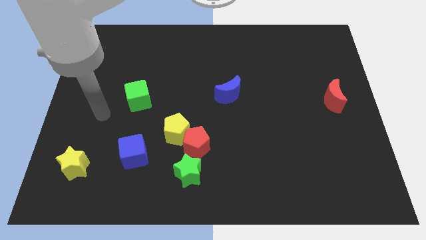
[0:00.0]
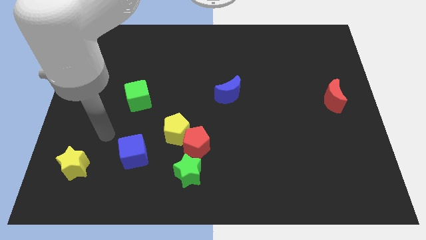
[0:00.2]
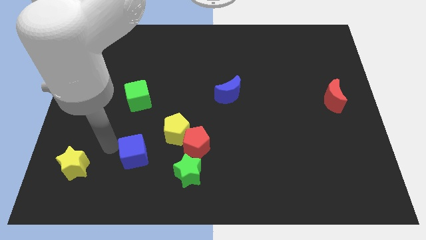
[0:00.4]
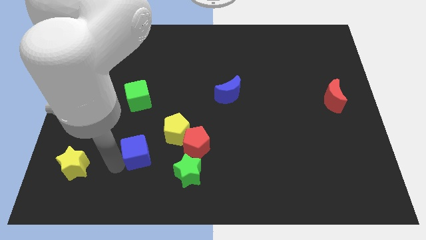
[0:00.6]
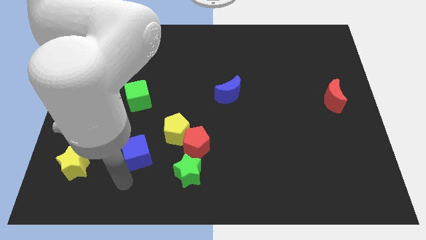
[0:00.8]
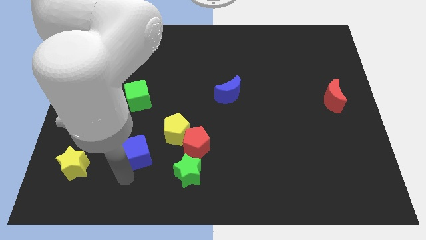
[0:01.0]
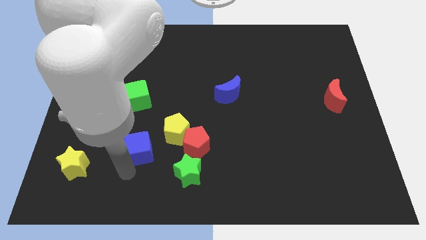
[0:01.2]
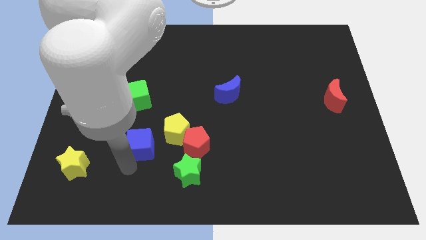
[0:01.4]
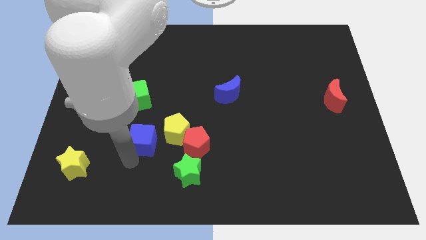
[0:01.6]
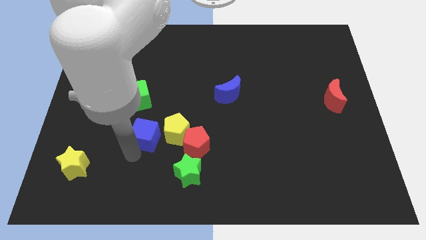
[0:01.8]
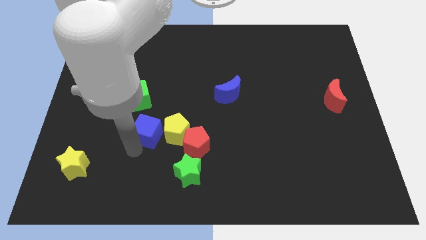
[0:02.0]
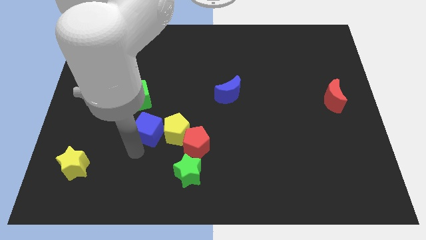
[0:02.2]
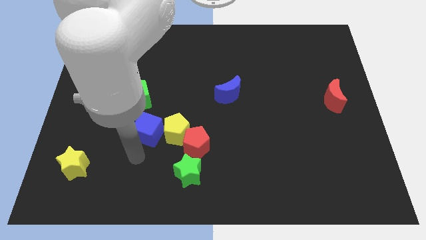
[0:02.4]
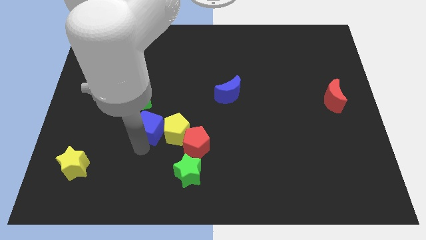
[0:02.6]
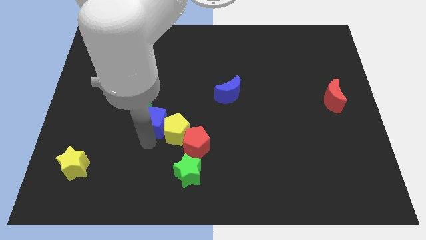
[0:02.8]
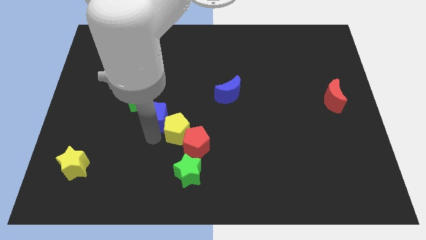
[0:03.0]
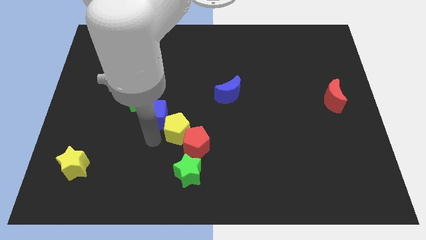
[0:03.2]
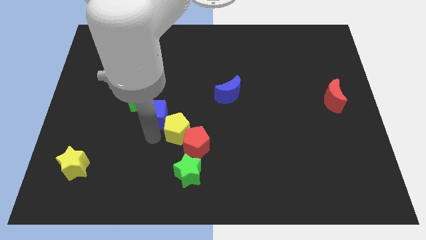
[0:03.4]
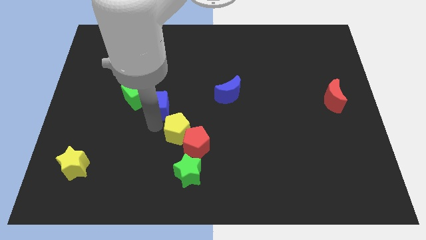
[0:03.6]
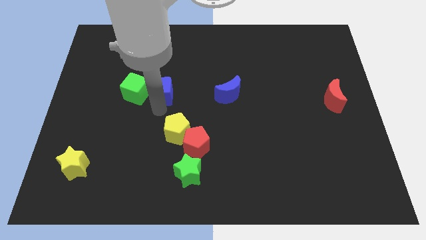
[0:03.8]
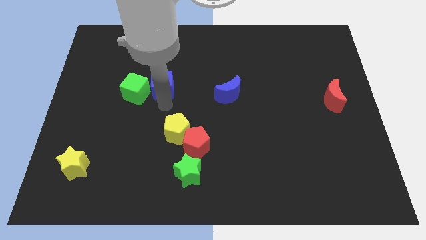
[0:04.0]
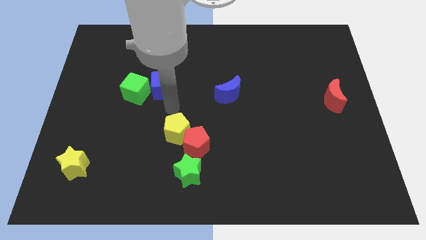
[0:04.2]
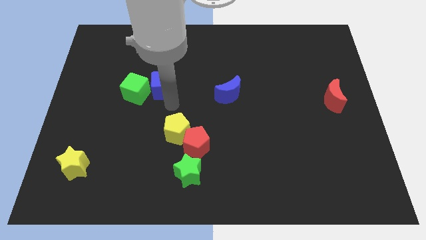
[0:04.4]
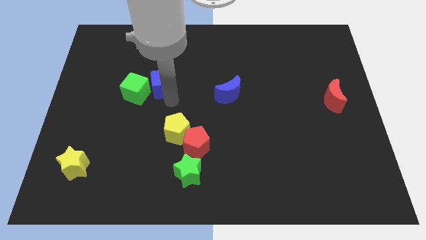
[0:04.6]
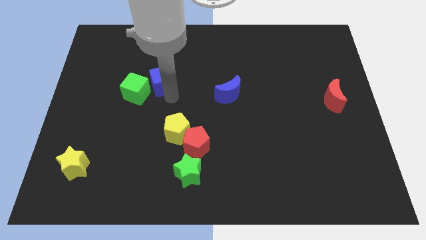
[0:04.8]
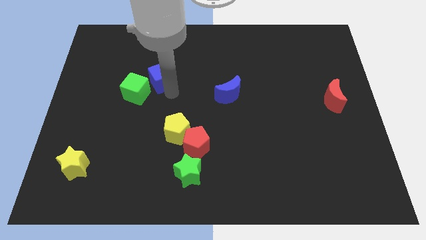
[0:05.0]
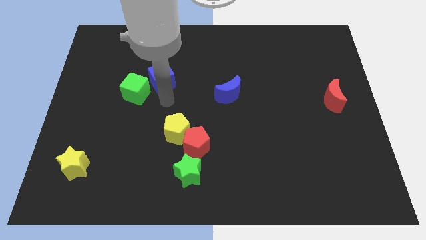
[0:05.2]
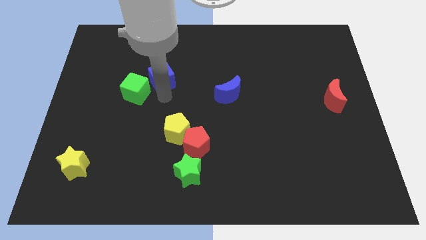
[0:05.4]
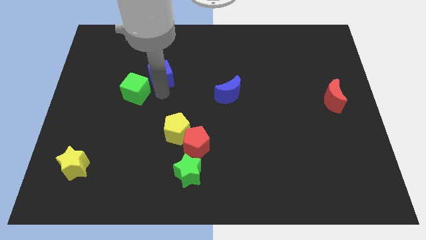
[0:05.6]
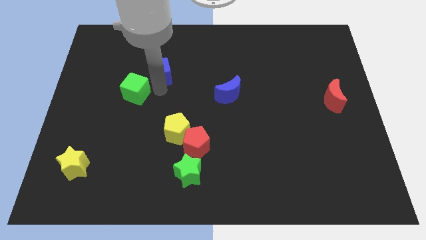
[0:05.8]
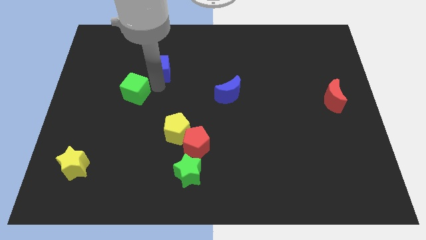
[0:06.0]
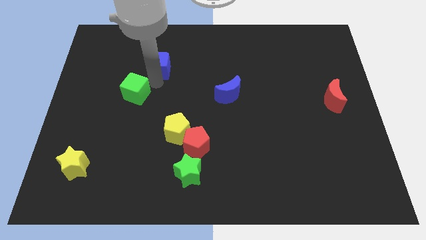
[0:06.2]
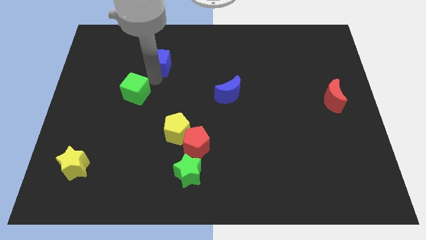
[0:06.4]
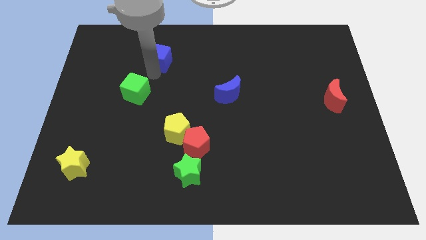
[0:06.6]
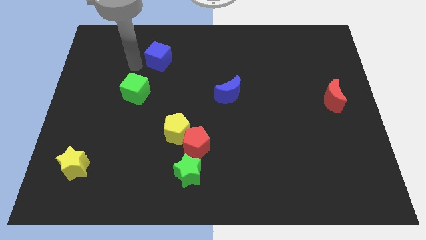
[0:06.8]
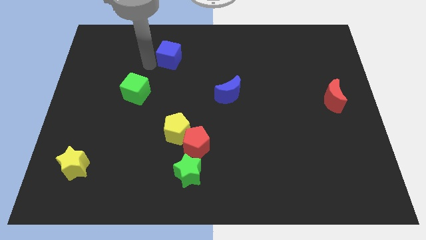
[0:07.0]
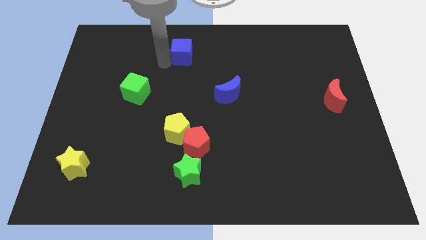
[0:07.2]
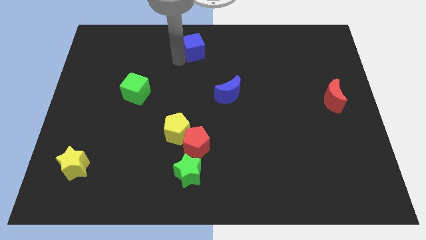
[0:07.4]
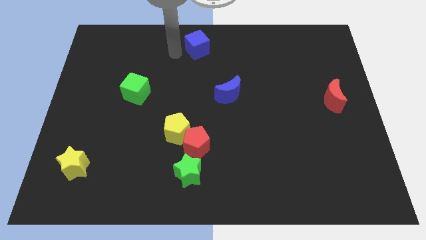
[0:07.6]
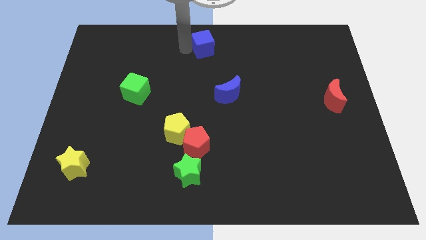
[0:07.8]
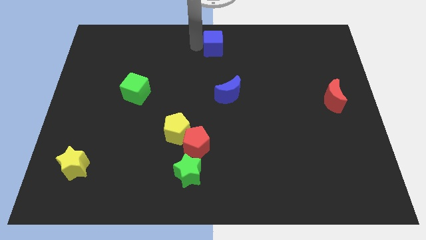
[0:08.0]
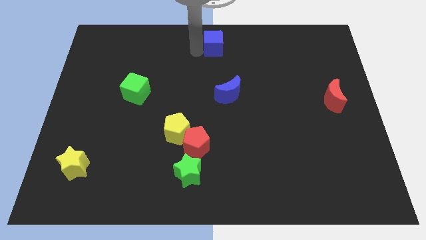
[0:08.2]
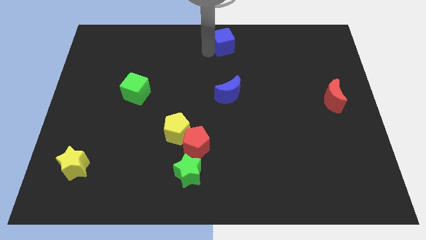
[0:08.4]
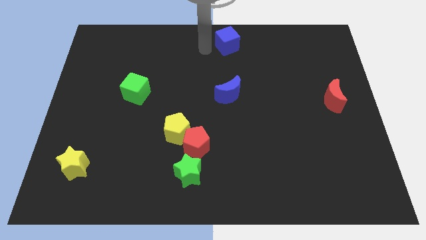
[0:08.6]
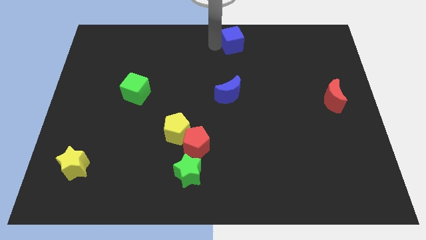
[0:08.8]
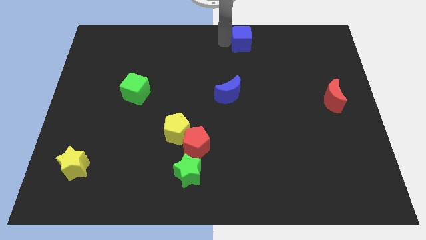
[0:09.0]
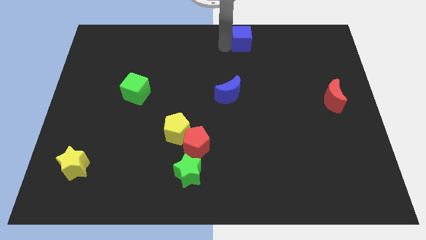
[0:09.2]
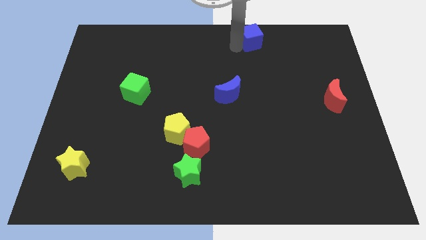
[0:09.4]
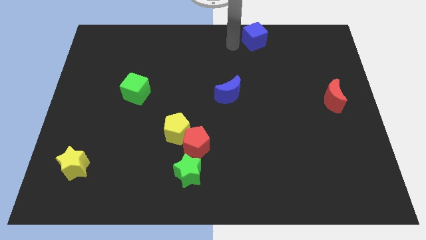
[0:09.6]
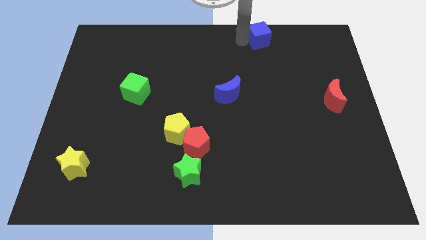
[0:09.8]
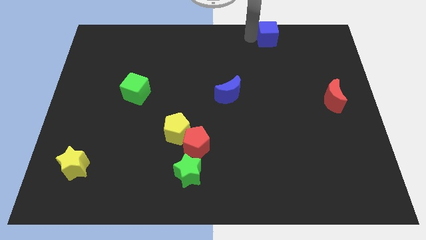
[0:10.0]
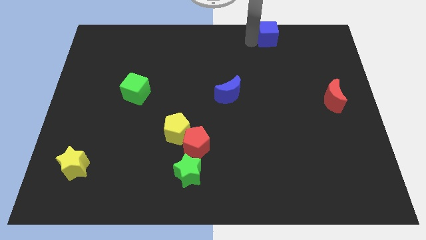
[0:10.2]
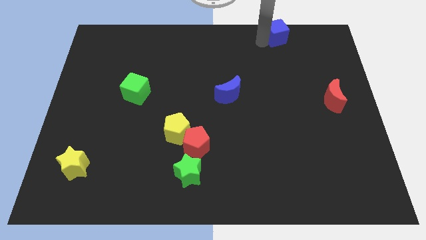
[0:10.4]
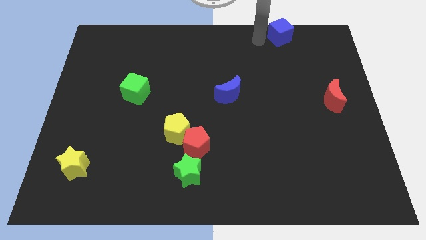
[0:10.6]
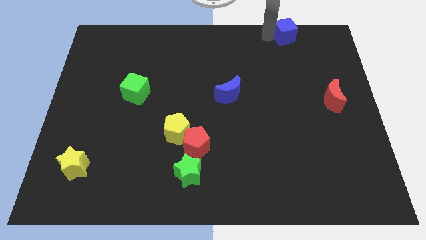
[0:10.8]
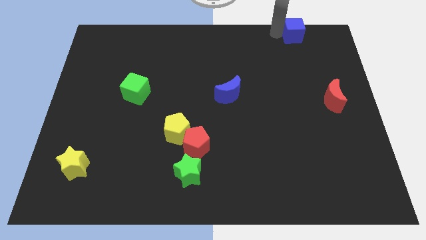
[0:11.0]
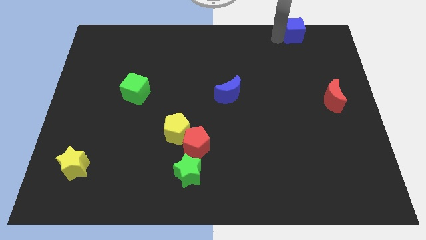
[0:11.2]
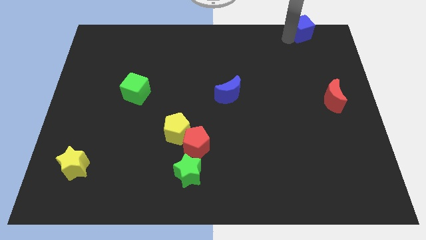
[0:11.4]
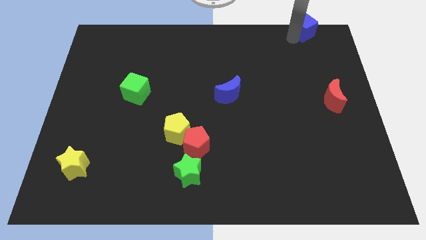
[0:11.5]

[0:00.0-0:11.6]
slide the blue cube to the top right corner

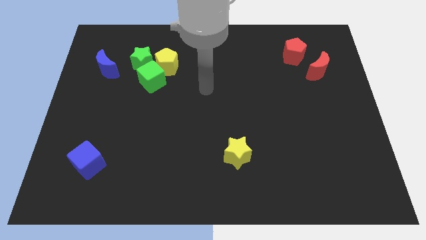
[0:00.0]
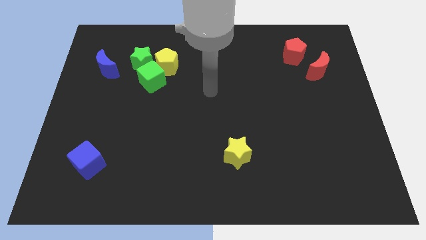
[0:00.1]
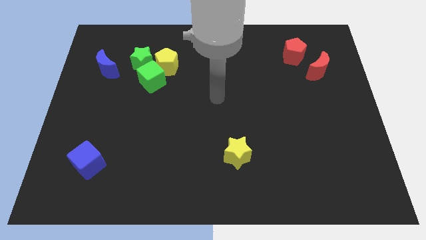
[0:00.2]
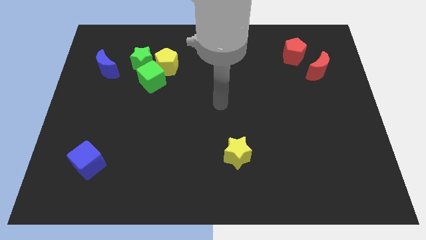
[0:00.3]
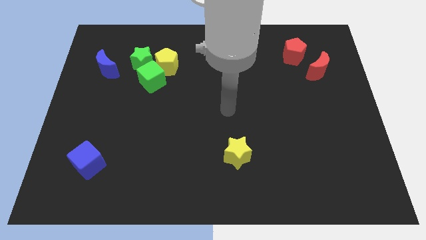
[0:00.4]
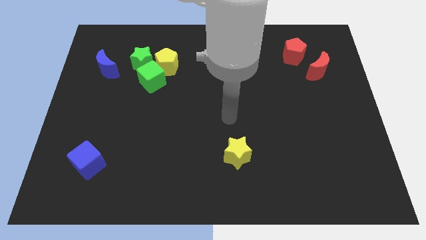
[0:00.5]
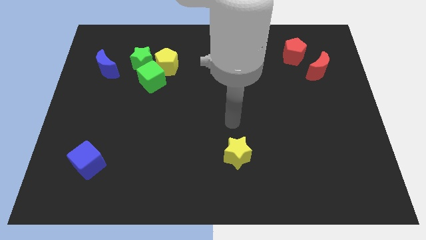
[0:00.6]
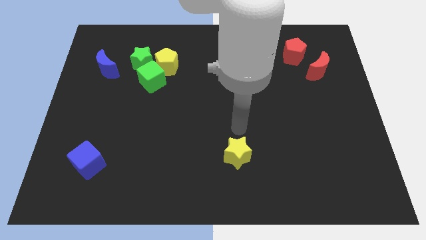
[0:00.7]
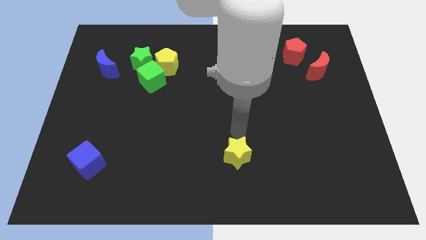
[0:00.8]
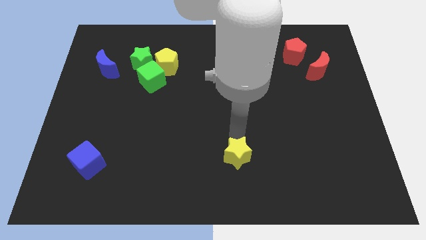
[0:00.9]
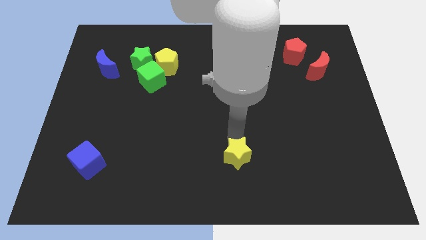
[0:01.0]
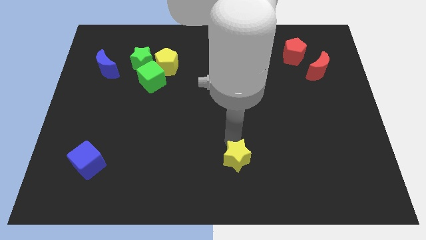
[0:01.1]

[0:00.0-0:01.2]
put the yellow star to the bottom

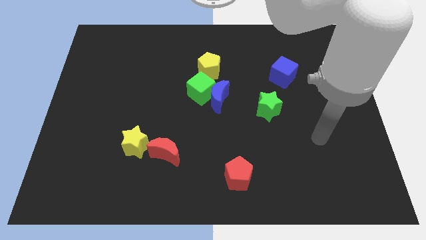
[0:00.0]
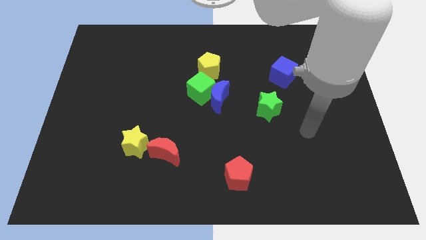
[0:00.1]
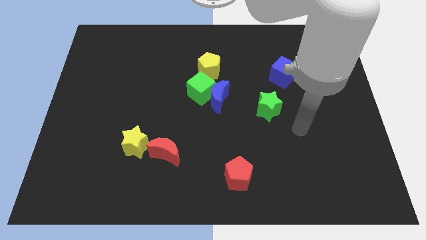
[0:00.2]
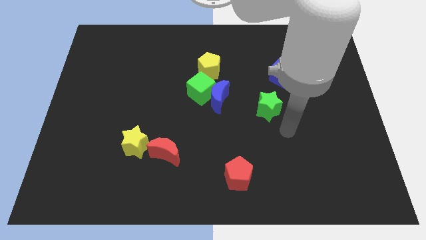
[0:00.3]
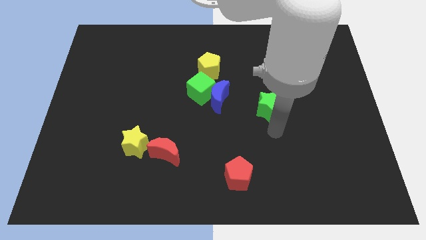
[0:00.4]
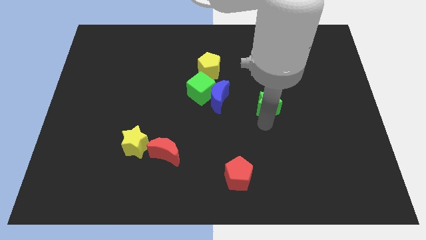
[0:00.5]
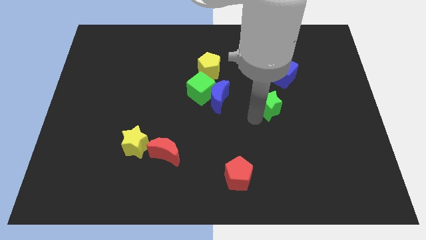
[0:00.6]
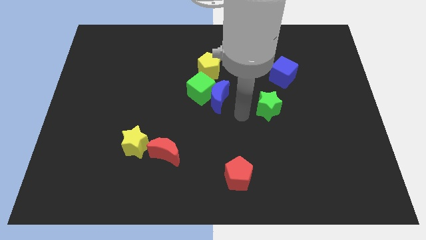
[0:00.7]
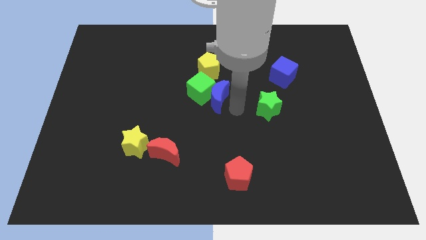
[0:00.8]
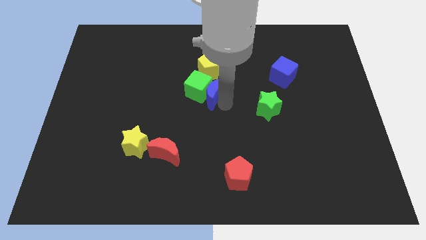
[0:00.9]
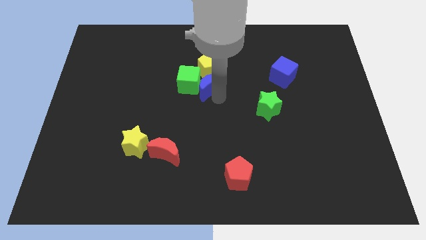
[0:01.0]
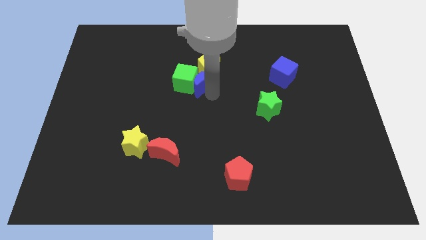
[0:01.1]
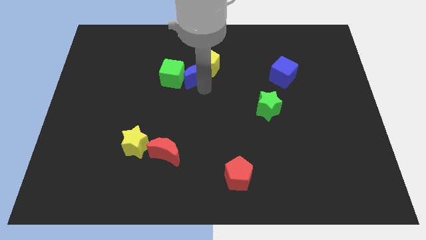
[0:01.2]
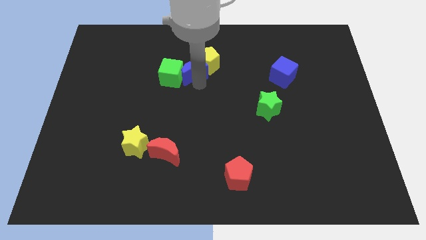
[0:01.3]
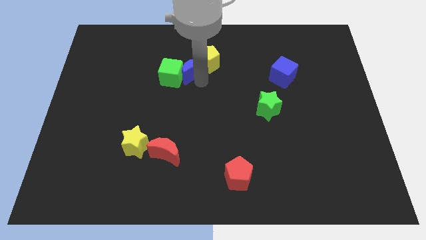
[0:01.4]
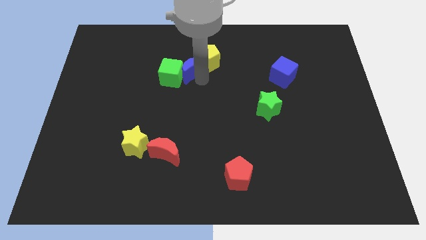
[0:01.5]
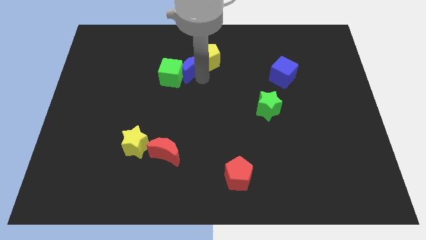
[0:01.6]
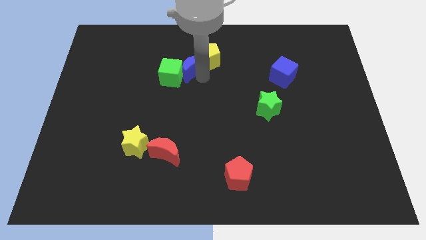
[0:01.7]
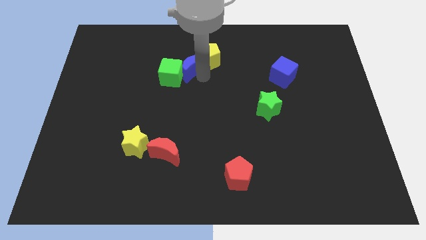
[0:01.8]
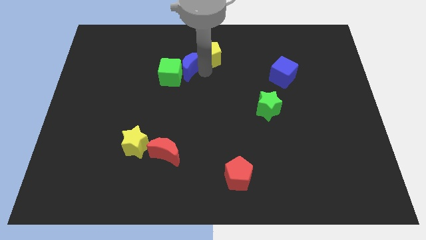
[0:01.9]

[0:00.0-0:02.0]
move the yellow pentagon to the top
